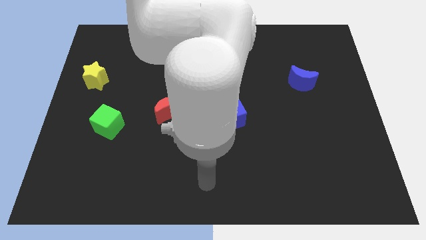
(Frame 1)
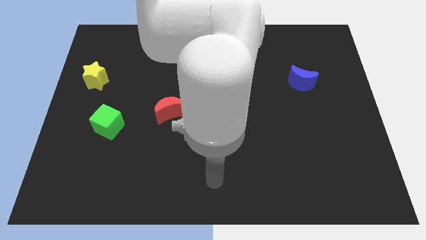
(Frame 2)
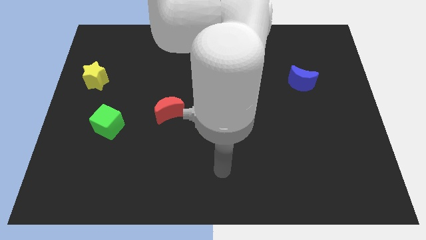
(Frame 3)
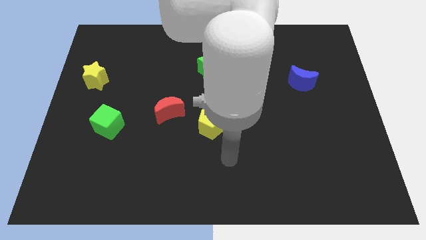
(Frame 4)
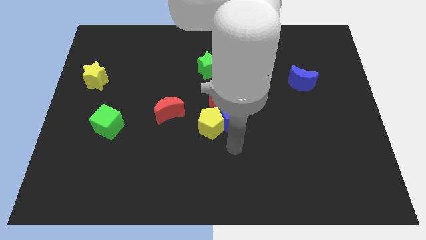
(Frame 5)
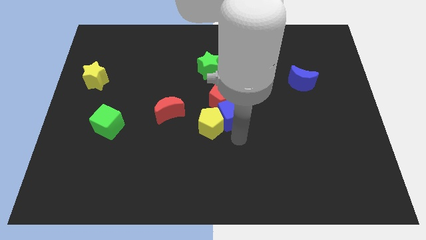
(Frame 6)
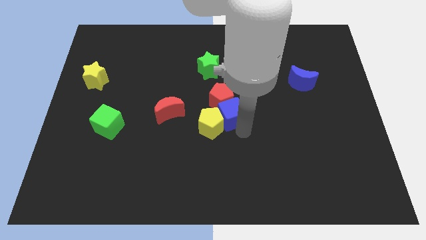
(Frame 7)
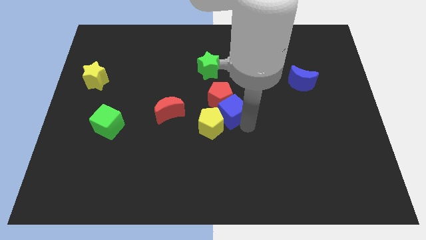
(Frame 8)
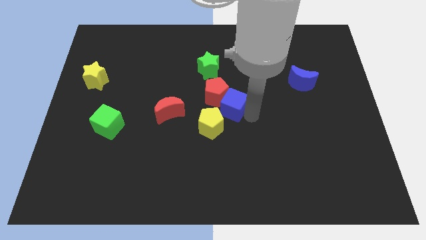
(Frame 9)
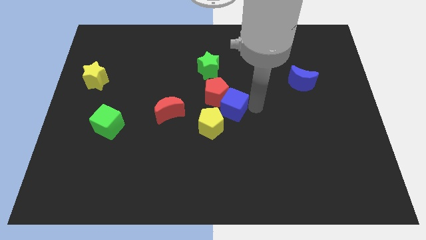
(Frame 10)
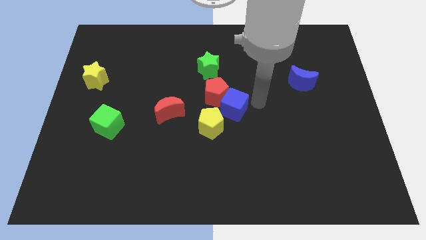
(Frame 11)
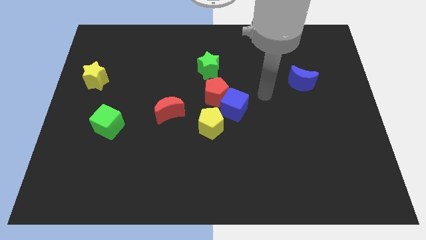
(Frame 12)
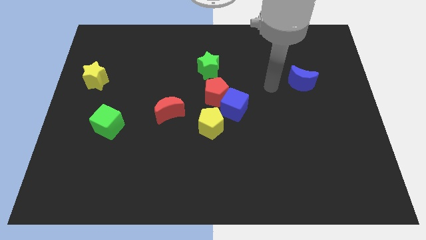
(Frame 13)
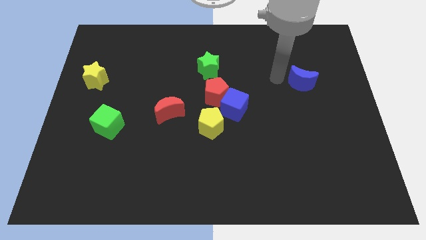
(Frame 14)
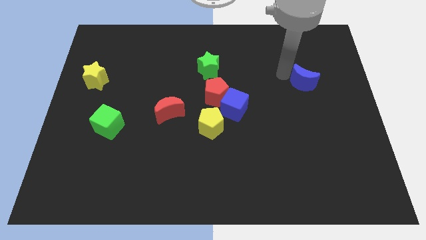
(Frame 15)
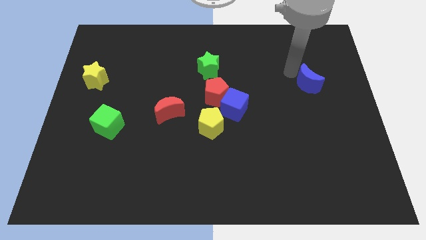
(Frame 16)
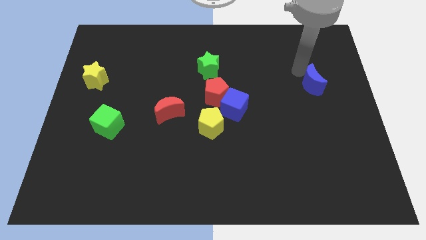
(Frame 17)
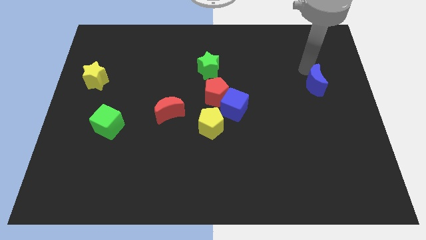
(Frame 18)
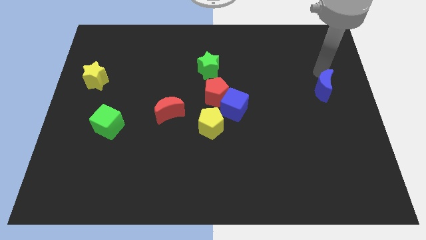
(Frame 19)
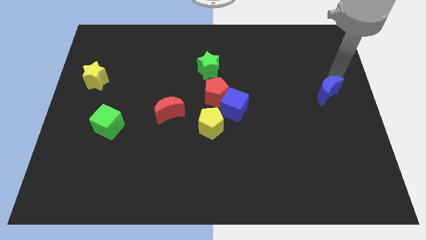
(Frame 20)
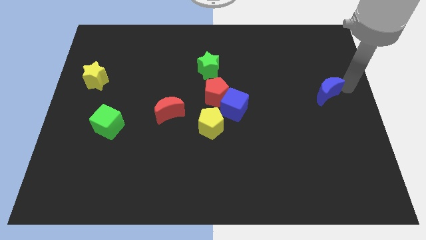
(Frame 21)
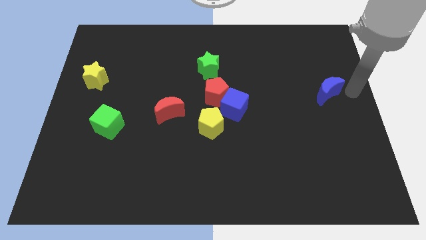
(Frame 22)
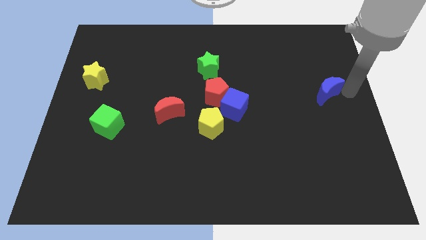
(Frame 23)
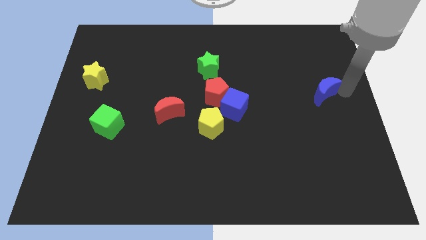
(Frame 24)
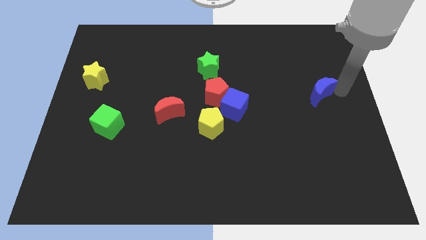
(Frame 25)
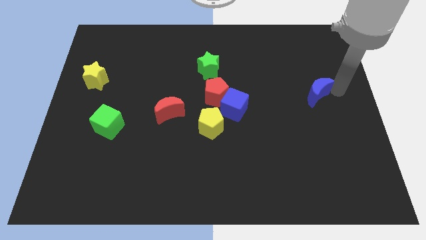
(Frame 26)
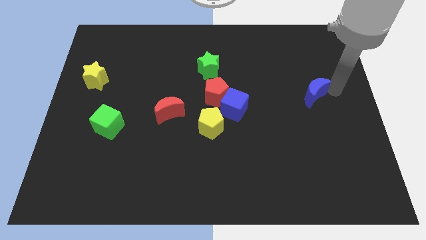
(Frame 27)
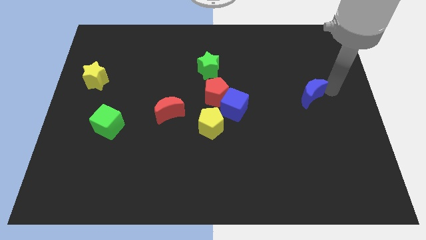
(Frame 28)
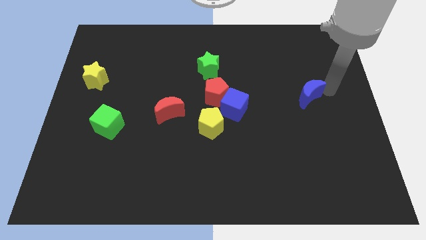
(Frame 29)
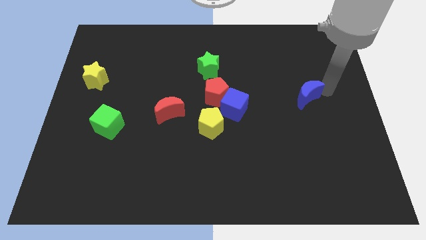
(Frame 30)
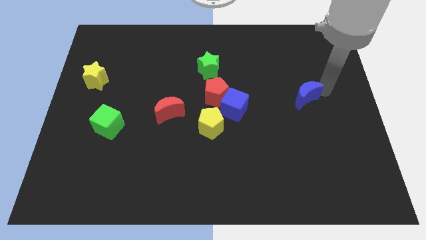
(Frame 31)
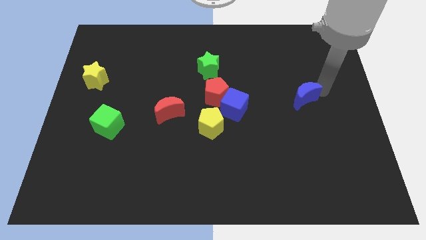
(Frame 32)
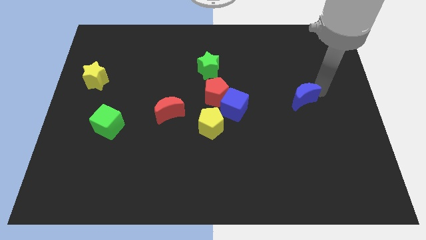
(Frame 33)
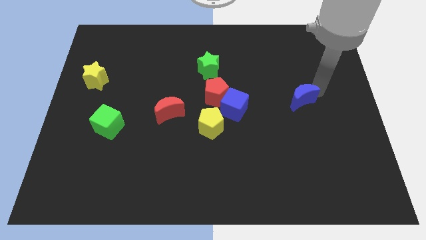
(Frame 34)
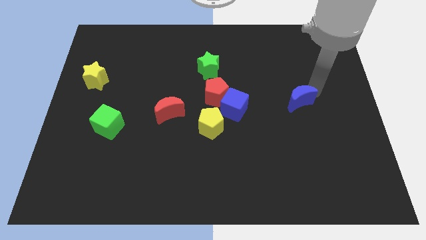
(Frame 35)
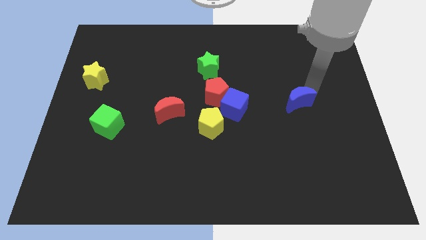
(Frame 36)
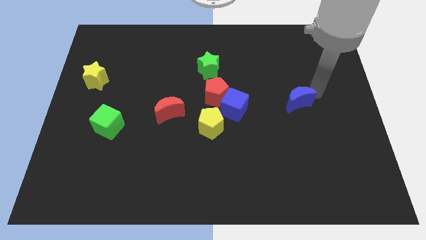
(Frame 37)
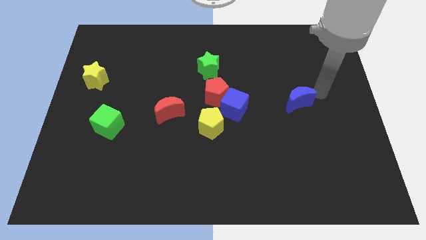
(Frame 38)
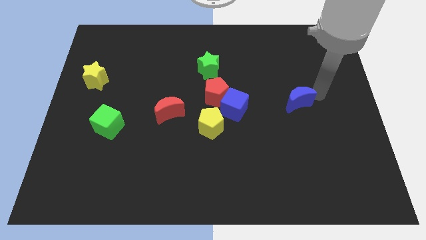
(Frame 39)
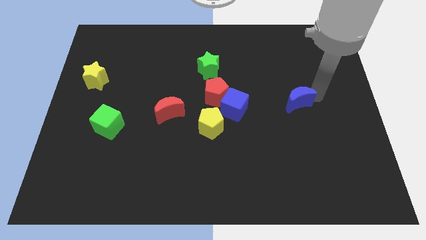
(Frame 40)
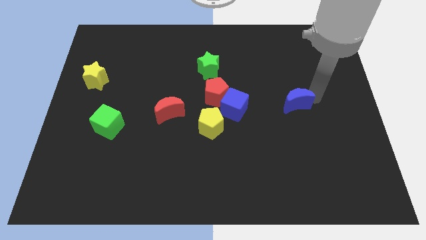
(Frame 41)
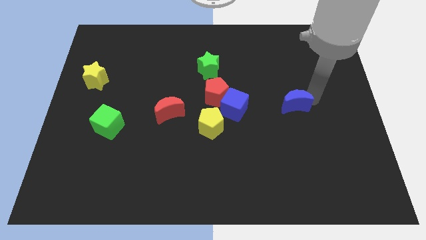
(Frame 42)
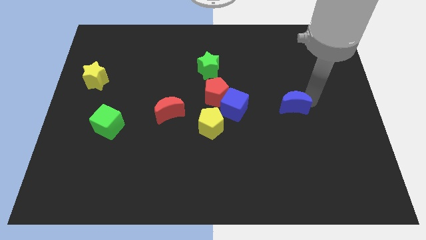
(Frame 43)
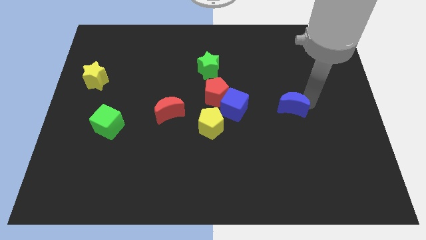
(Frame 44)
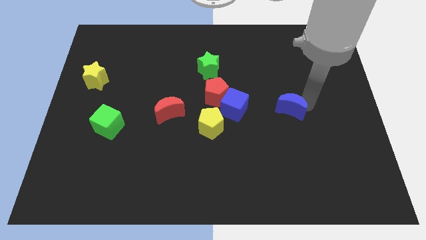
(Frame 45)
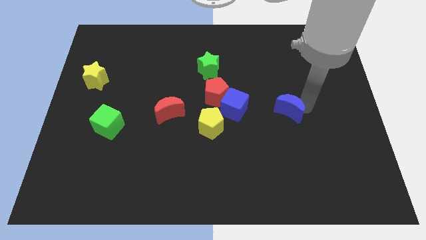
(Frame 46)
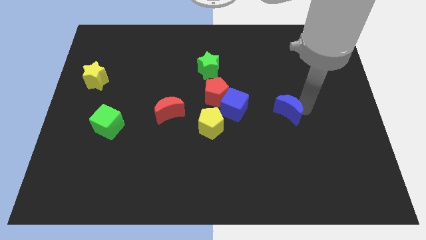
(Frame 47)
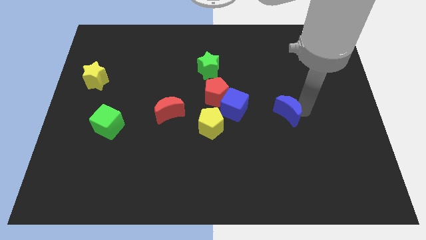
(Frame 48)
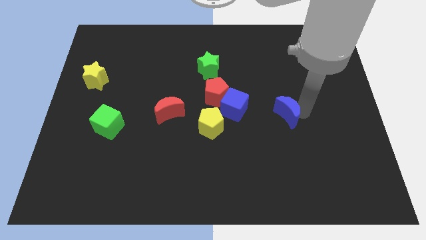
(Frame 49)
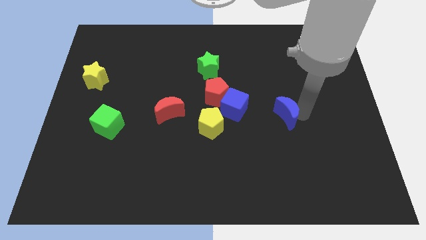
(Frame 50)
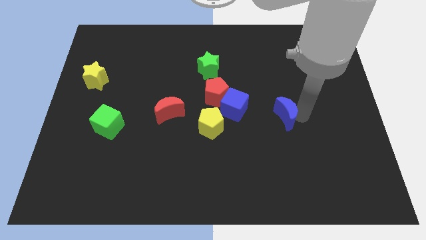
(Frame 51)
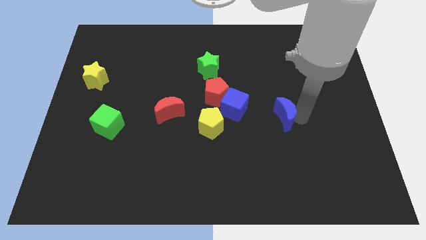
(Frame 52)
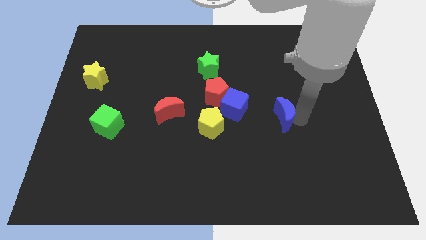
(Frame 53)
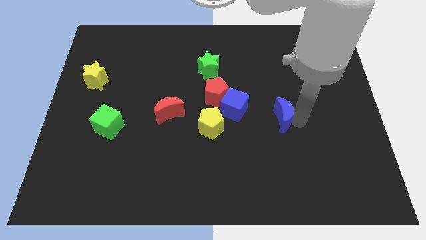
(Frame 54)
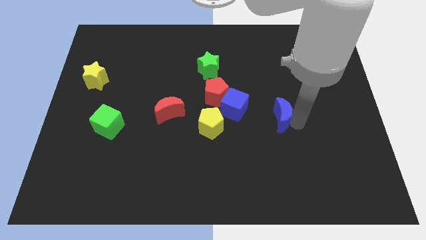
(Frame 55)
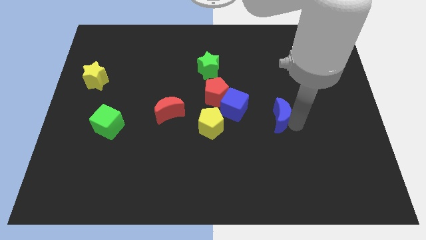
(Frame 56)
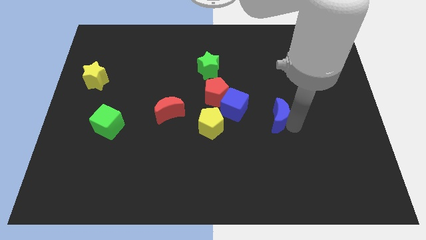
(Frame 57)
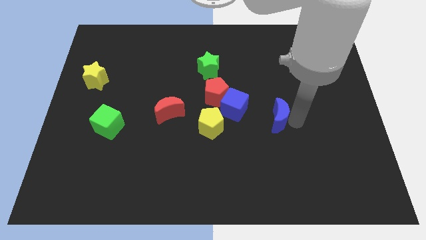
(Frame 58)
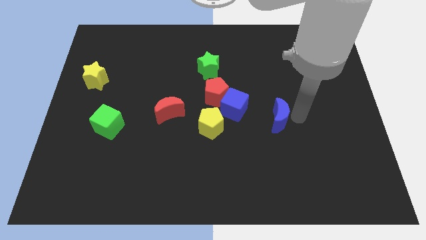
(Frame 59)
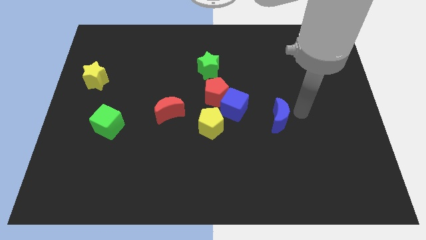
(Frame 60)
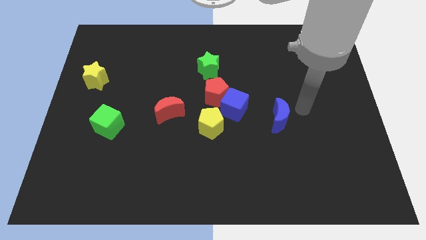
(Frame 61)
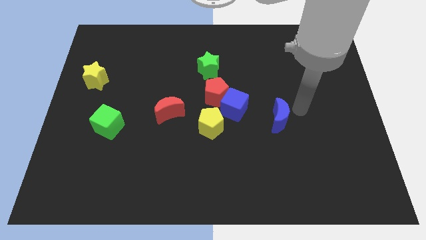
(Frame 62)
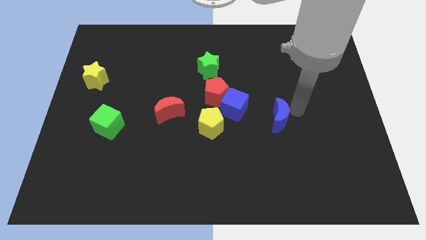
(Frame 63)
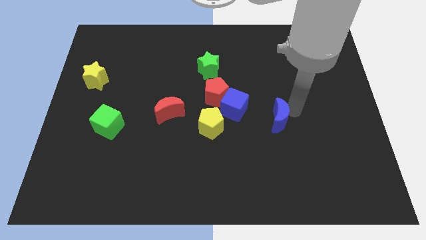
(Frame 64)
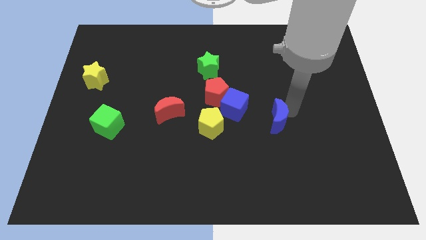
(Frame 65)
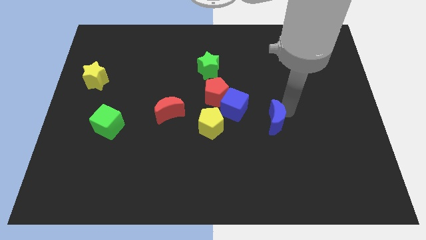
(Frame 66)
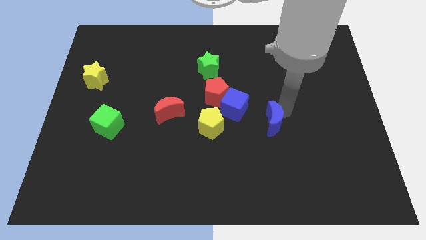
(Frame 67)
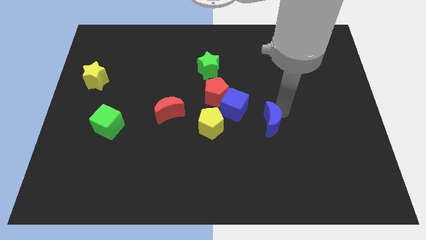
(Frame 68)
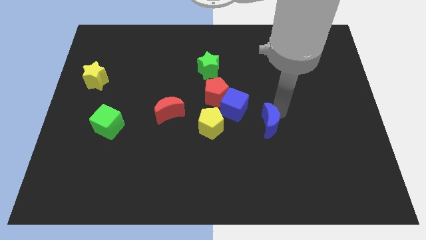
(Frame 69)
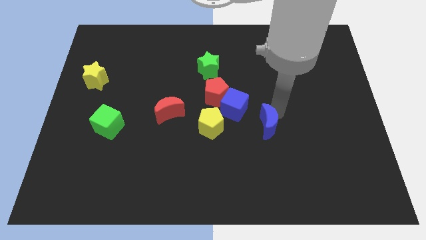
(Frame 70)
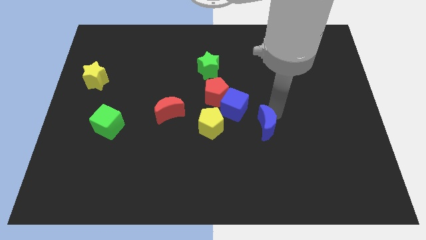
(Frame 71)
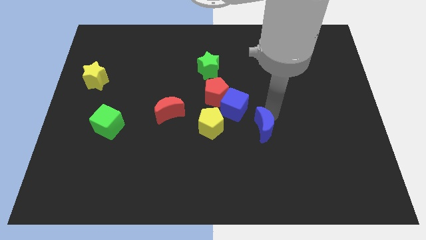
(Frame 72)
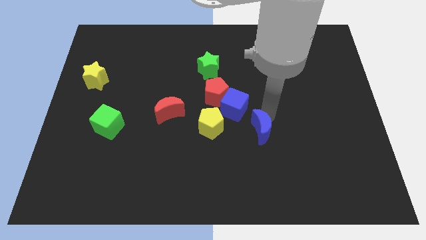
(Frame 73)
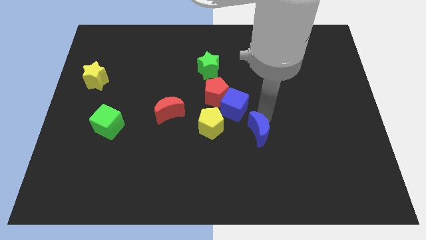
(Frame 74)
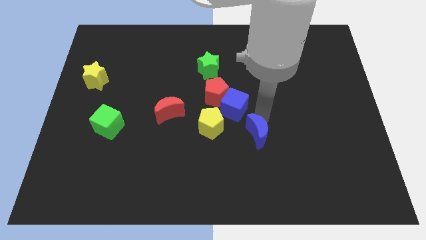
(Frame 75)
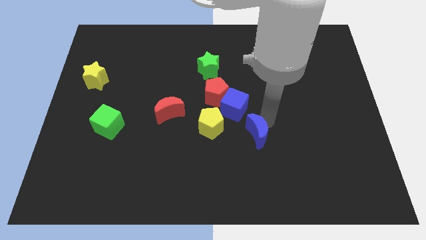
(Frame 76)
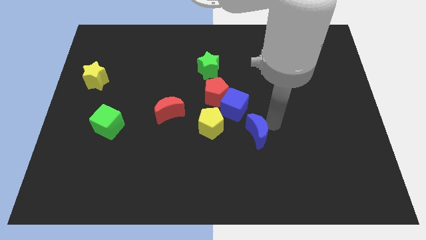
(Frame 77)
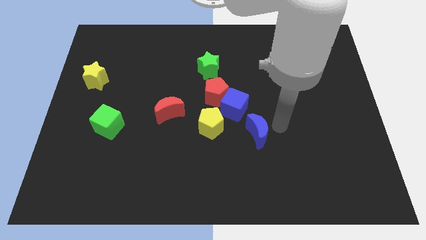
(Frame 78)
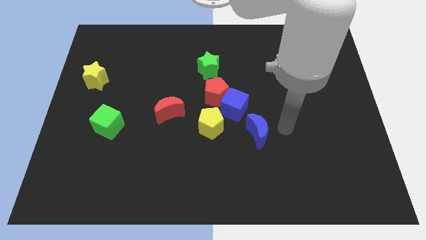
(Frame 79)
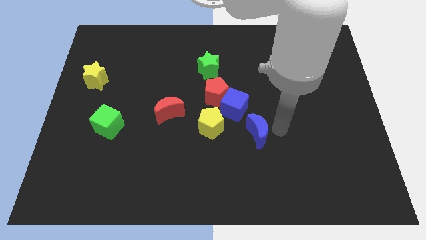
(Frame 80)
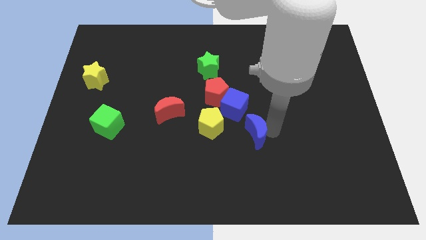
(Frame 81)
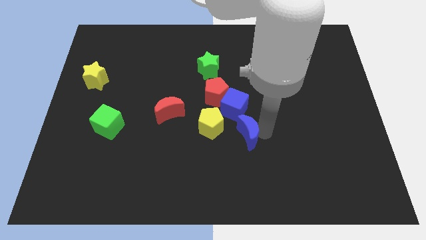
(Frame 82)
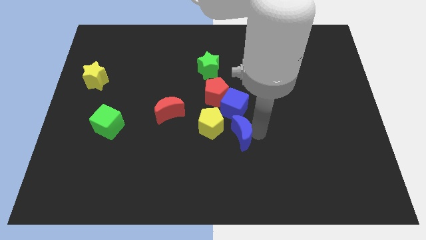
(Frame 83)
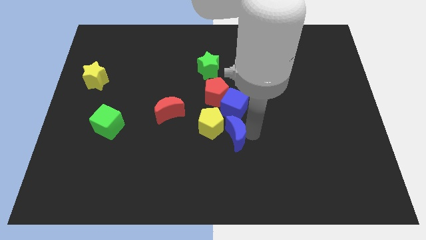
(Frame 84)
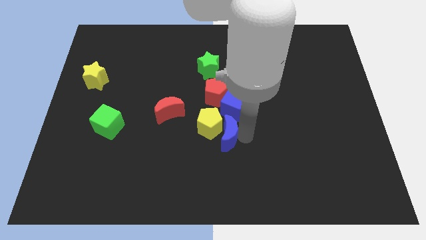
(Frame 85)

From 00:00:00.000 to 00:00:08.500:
slide the blue moon towards the yellow pentagon
